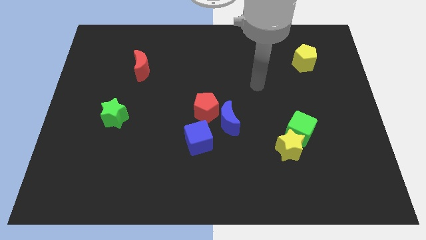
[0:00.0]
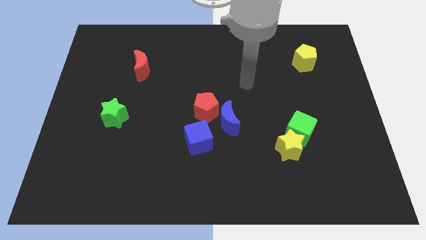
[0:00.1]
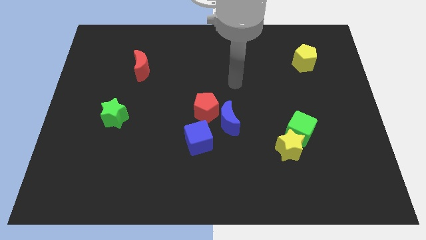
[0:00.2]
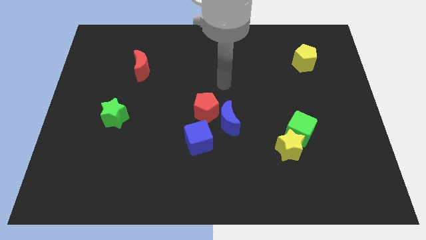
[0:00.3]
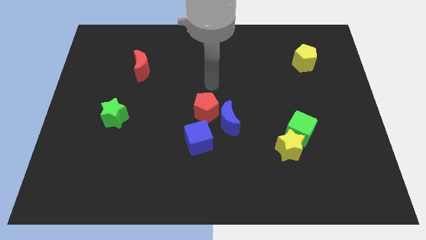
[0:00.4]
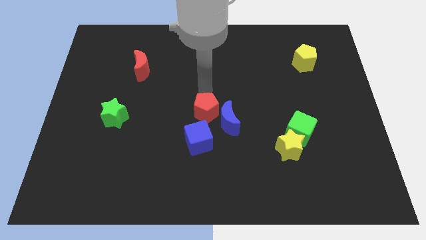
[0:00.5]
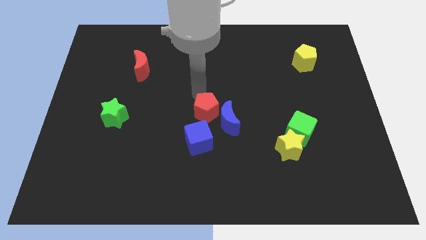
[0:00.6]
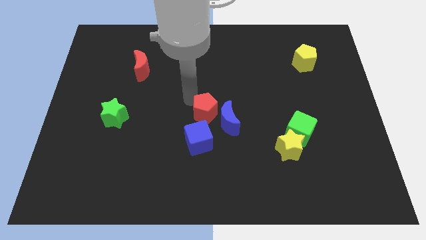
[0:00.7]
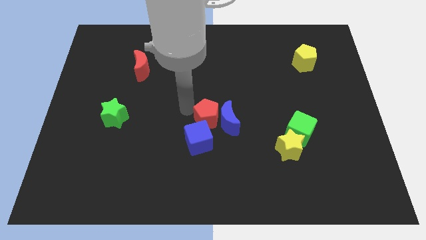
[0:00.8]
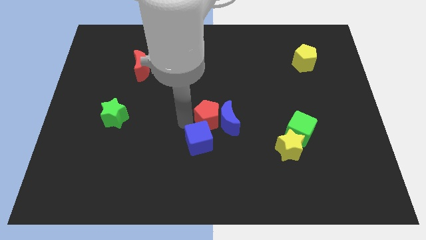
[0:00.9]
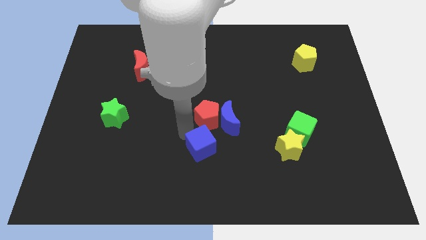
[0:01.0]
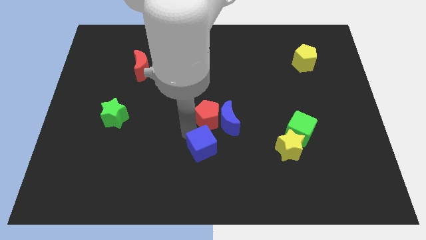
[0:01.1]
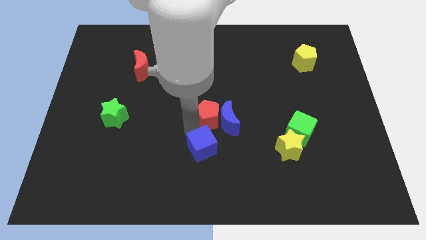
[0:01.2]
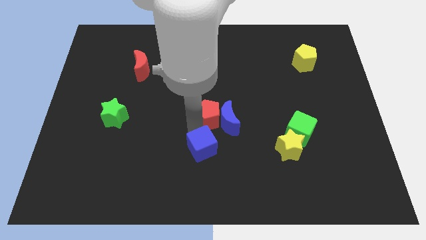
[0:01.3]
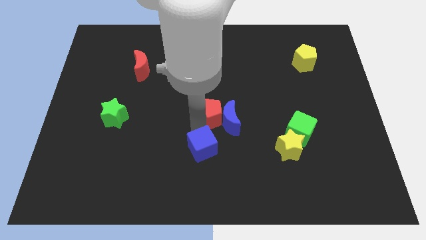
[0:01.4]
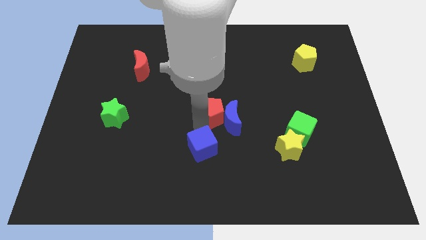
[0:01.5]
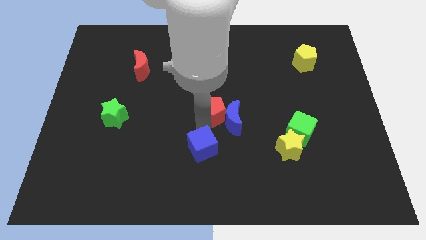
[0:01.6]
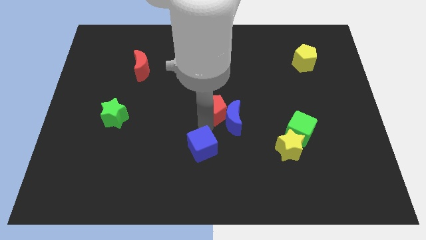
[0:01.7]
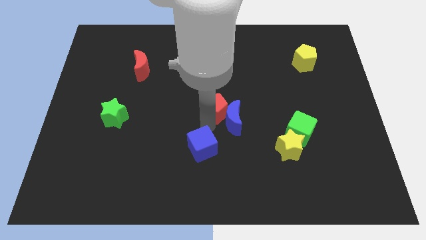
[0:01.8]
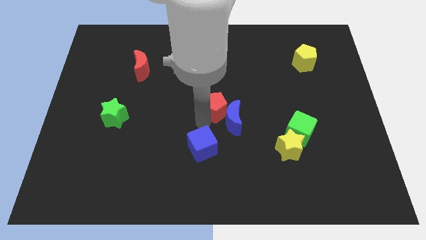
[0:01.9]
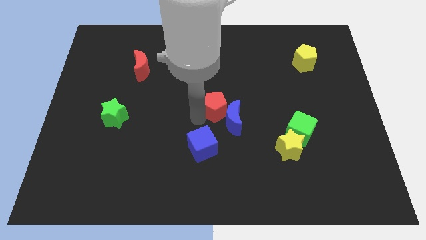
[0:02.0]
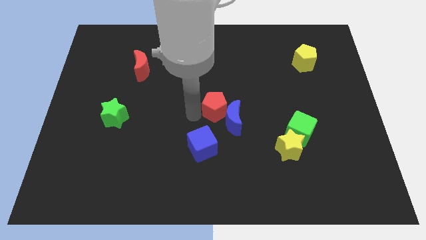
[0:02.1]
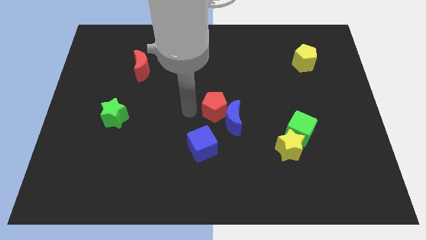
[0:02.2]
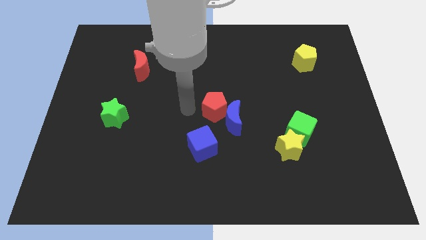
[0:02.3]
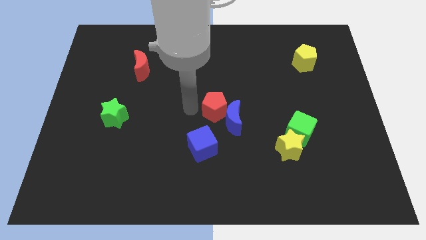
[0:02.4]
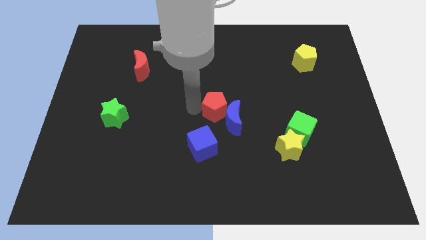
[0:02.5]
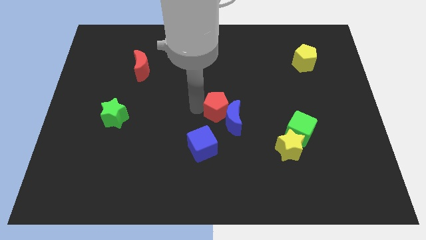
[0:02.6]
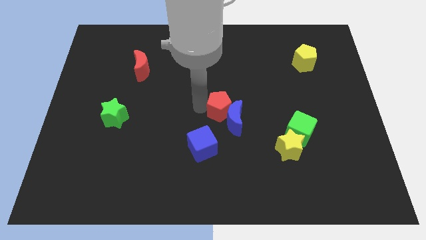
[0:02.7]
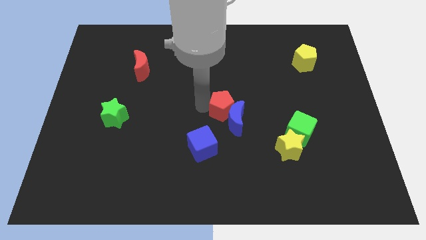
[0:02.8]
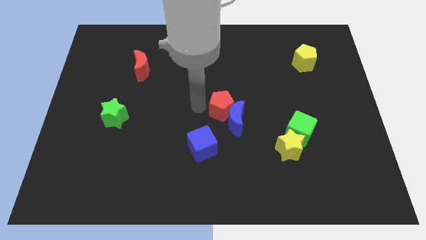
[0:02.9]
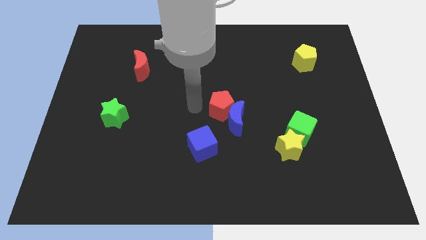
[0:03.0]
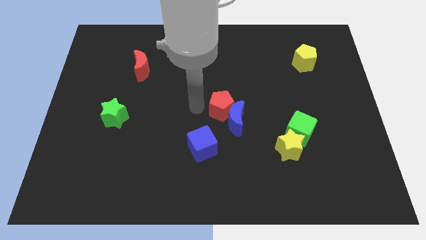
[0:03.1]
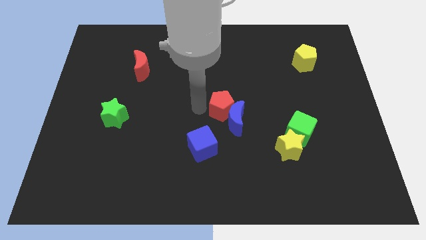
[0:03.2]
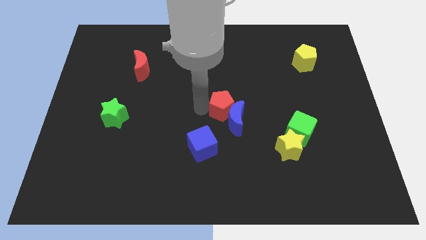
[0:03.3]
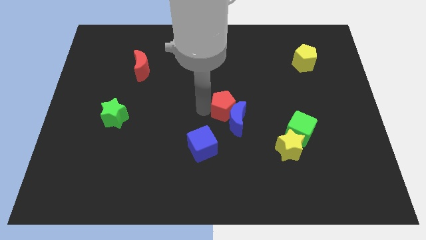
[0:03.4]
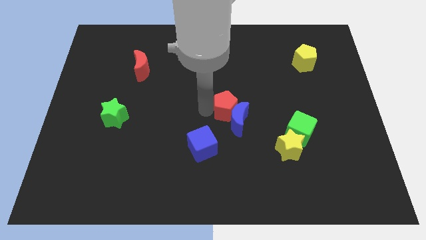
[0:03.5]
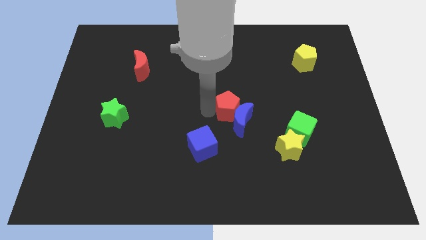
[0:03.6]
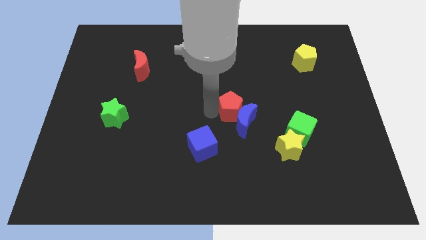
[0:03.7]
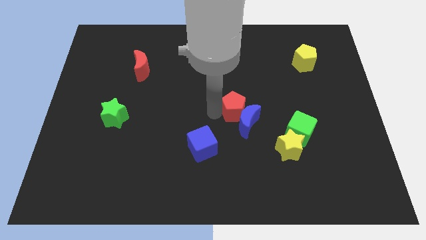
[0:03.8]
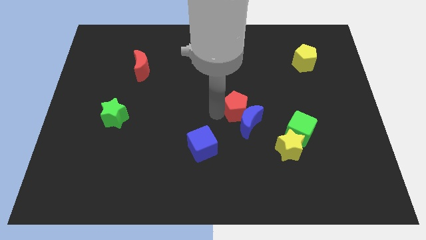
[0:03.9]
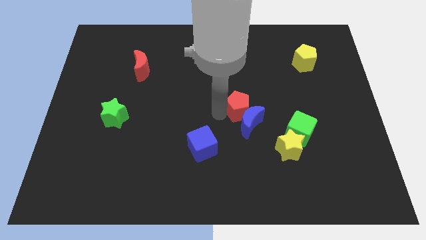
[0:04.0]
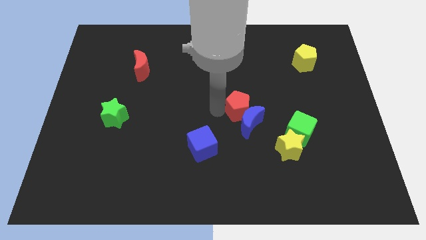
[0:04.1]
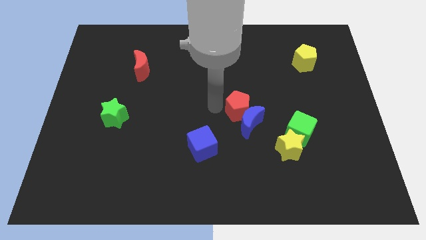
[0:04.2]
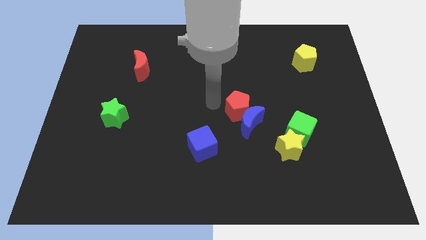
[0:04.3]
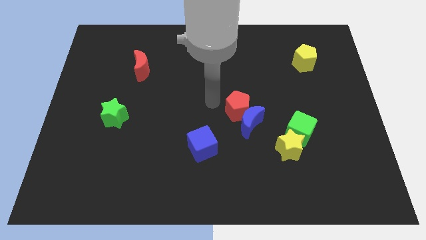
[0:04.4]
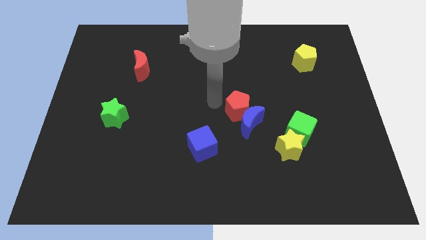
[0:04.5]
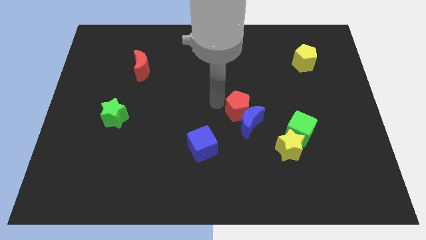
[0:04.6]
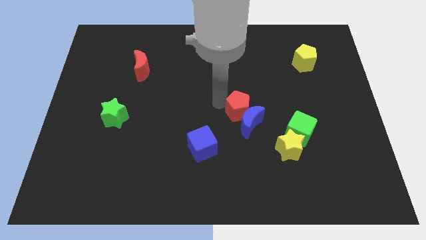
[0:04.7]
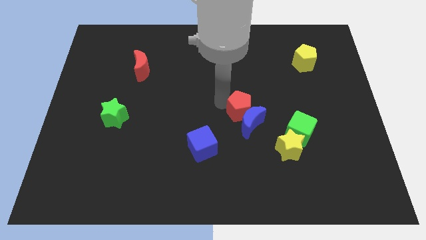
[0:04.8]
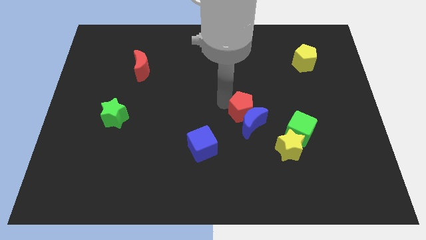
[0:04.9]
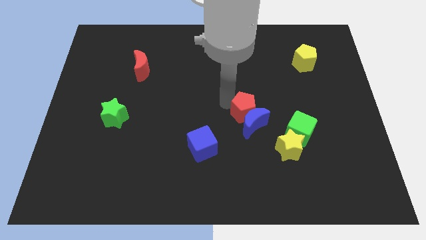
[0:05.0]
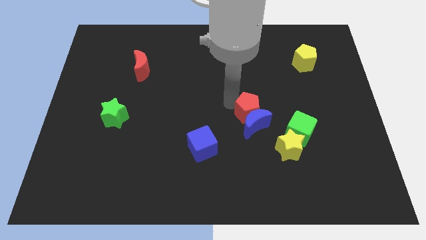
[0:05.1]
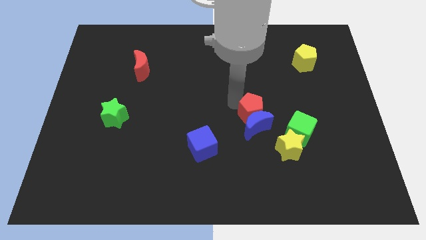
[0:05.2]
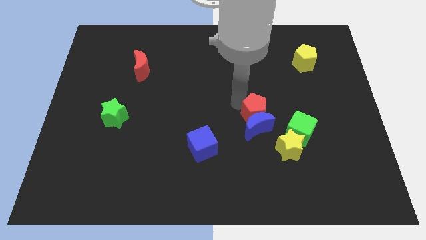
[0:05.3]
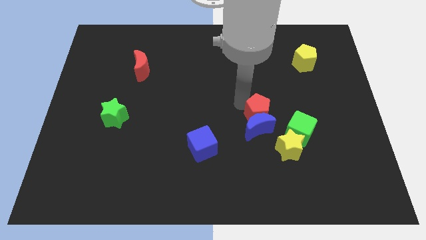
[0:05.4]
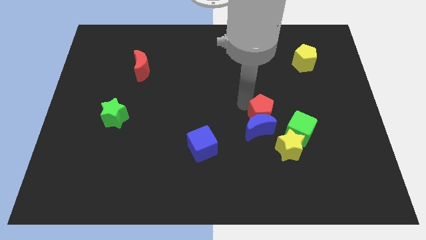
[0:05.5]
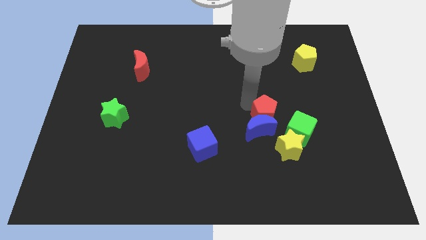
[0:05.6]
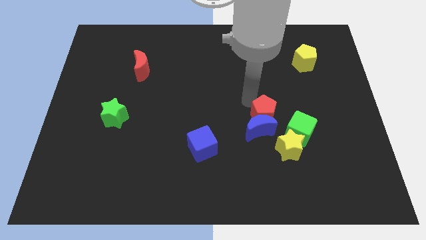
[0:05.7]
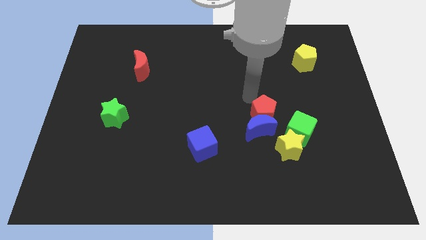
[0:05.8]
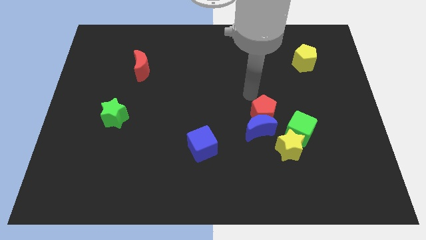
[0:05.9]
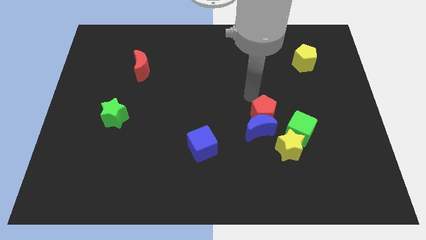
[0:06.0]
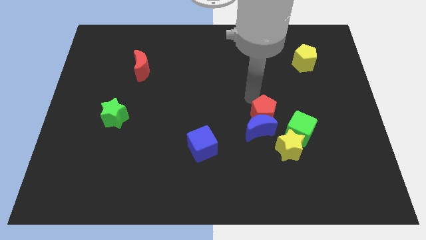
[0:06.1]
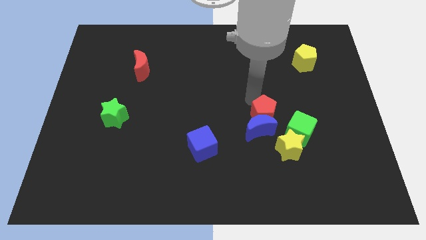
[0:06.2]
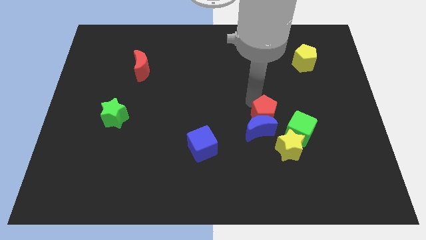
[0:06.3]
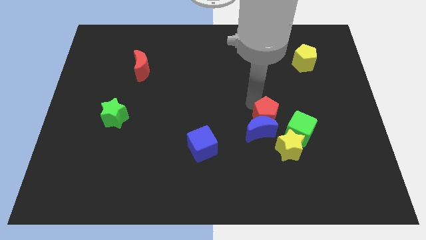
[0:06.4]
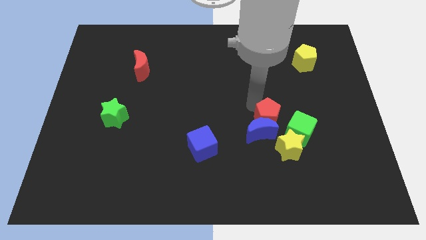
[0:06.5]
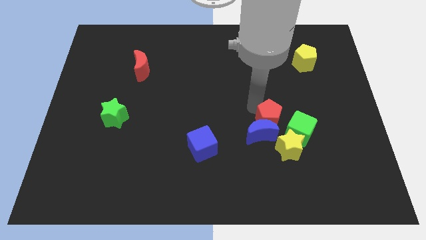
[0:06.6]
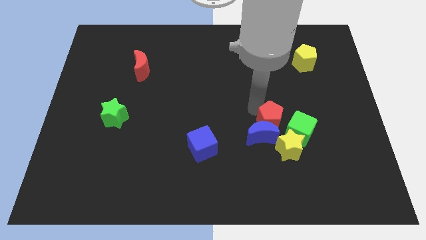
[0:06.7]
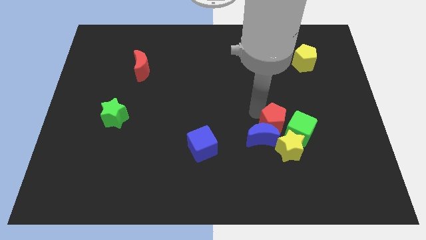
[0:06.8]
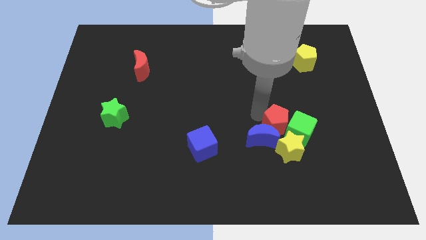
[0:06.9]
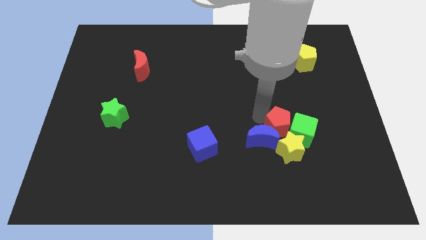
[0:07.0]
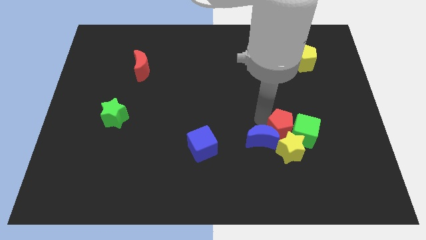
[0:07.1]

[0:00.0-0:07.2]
put the red pentagon close to the yellow star

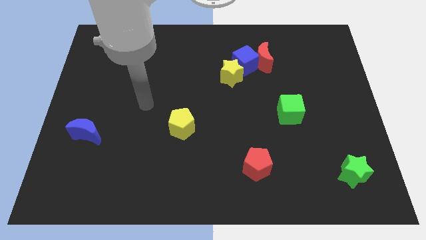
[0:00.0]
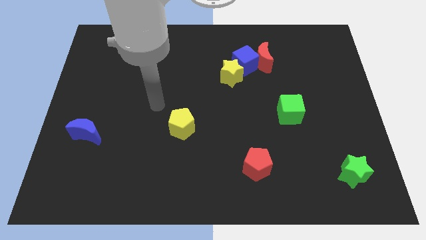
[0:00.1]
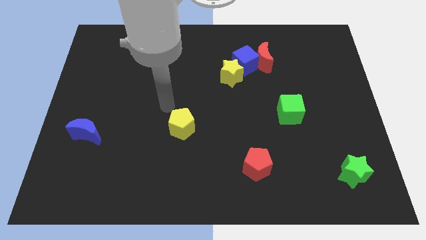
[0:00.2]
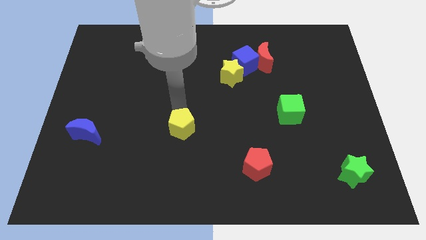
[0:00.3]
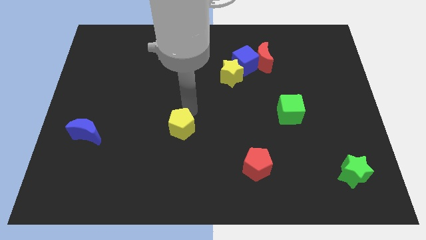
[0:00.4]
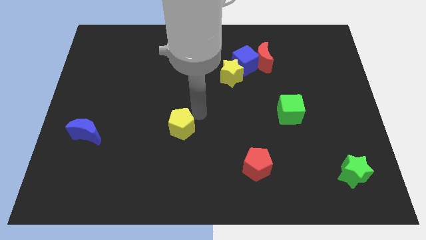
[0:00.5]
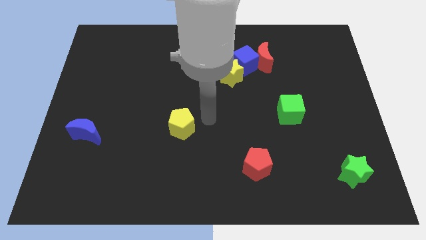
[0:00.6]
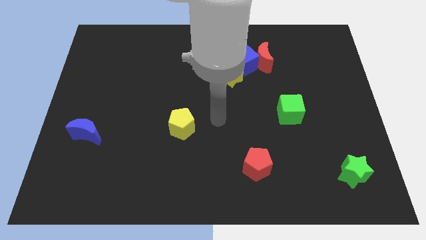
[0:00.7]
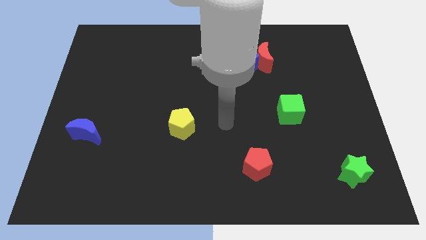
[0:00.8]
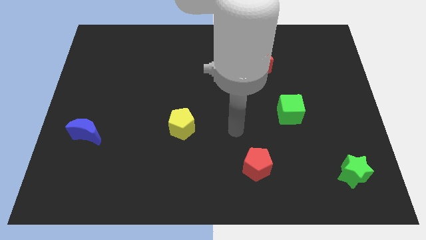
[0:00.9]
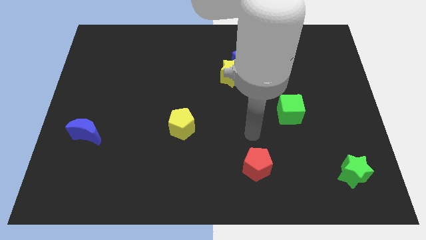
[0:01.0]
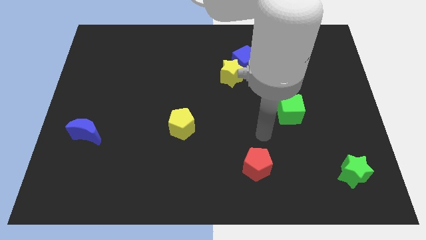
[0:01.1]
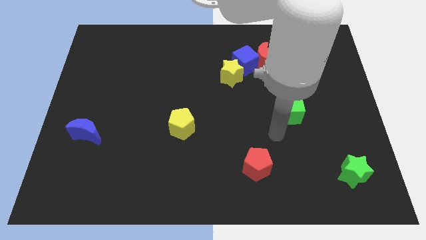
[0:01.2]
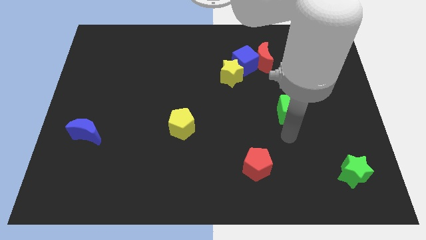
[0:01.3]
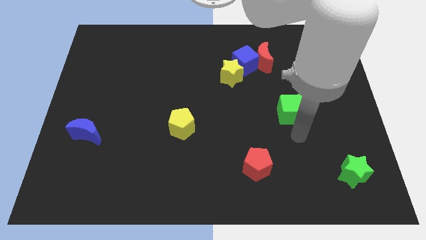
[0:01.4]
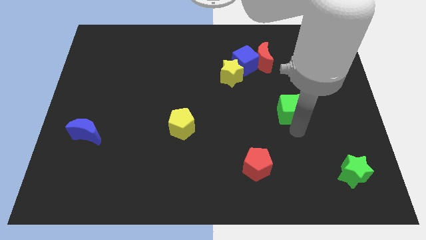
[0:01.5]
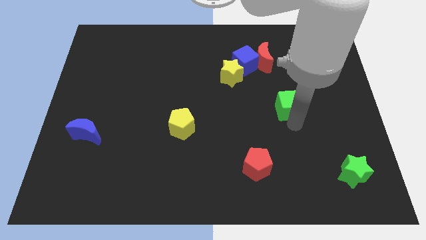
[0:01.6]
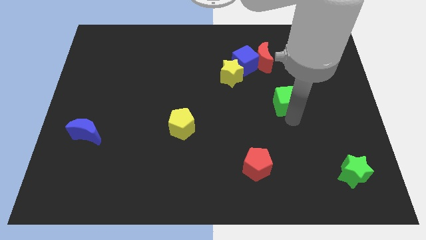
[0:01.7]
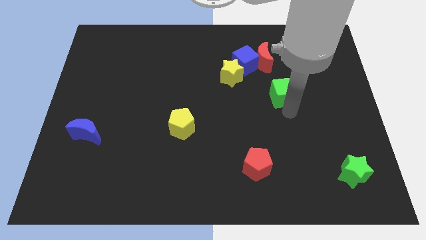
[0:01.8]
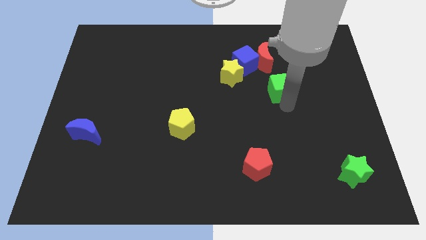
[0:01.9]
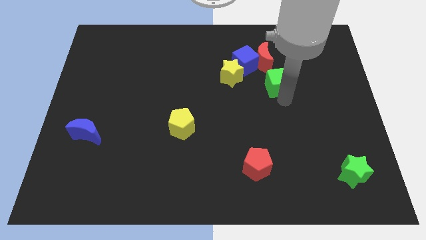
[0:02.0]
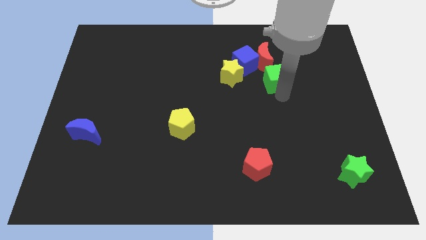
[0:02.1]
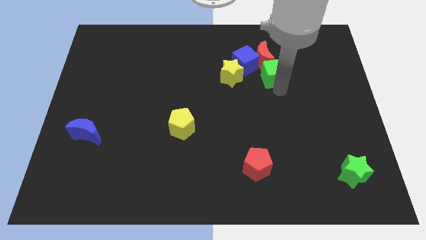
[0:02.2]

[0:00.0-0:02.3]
push the green cube towards the red moon
